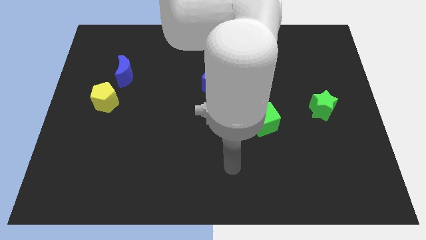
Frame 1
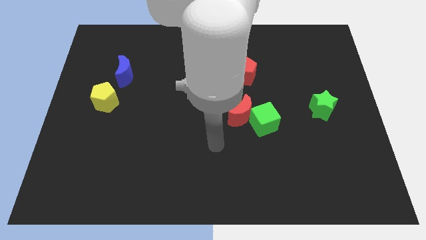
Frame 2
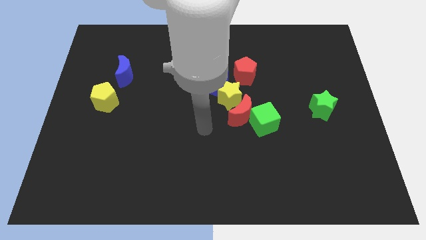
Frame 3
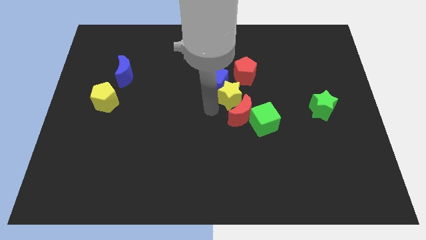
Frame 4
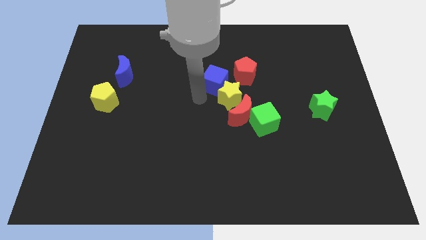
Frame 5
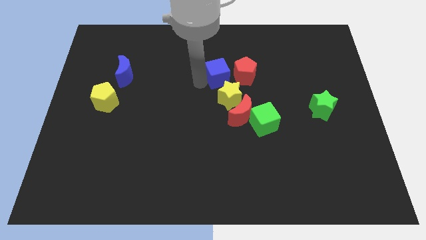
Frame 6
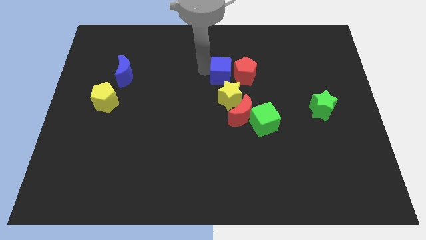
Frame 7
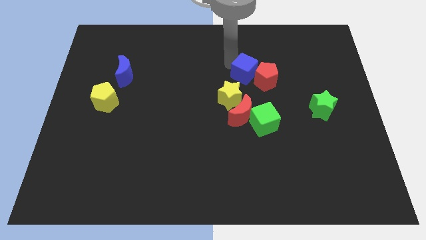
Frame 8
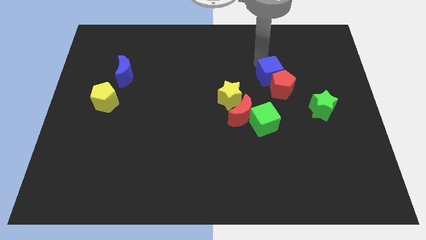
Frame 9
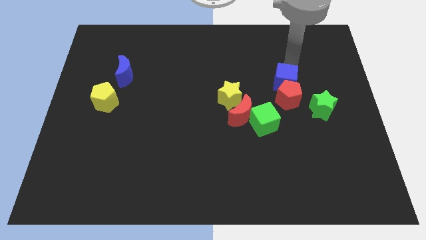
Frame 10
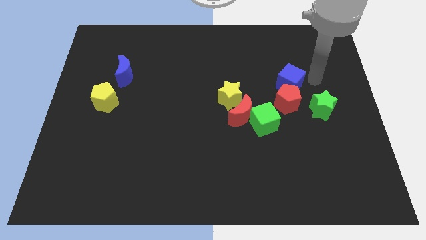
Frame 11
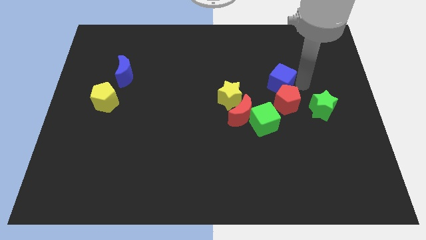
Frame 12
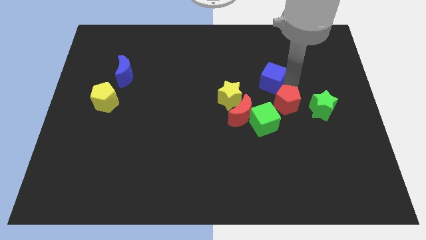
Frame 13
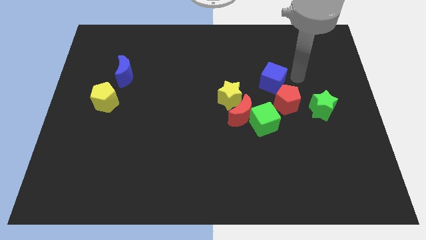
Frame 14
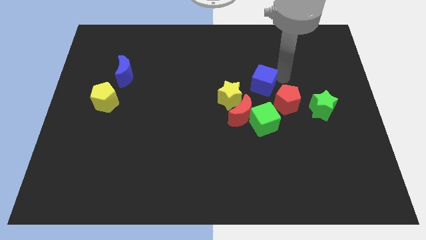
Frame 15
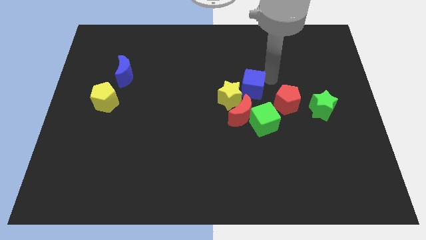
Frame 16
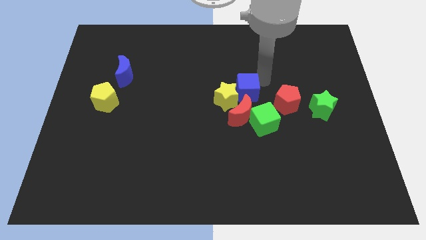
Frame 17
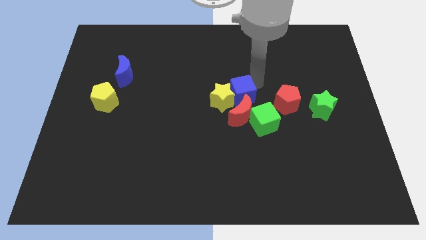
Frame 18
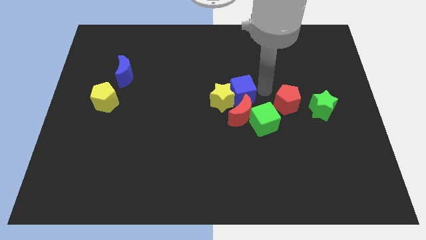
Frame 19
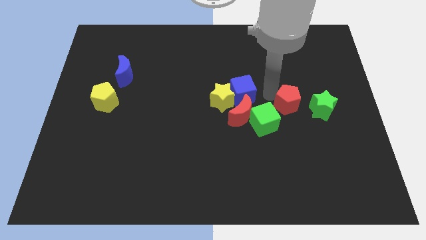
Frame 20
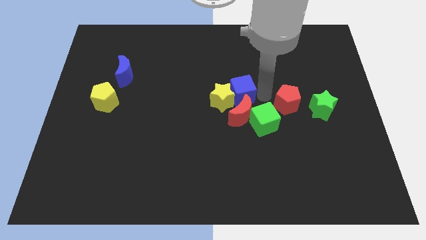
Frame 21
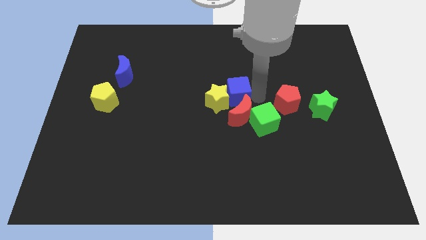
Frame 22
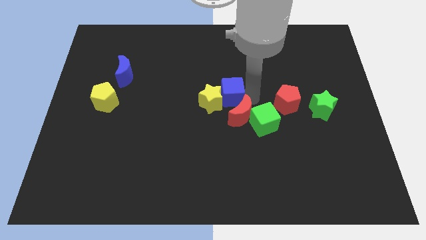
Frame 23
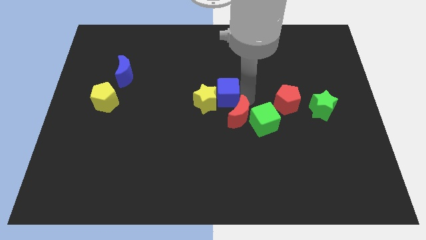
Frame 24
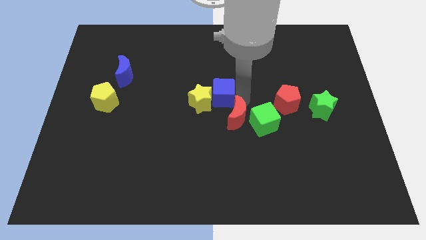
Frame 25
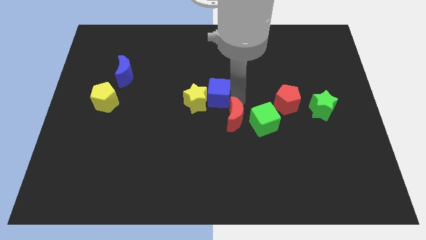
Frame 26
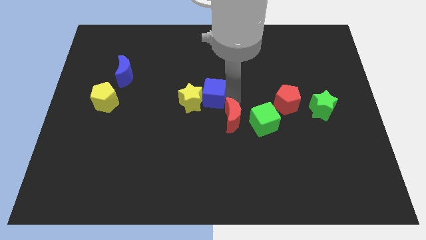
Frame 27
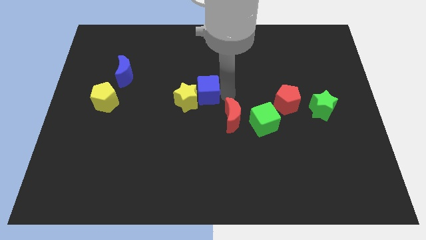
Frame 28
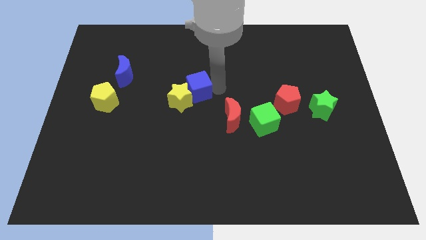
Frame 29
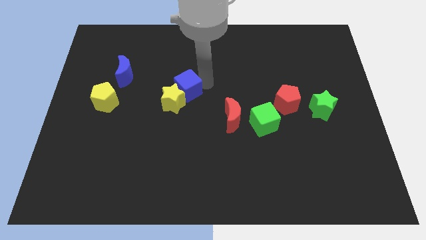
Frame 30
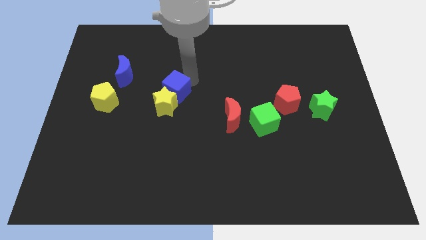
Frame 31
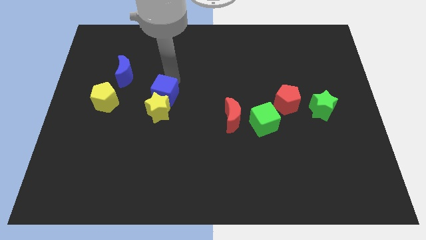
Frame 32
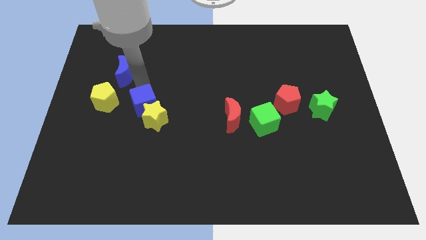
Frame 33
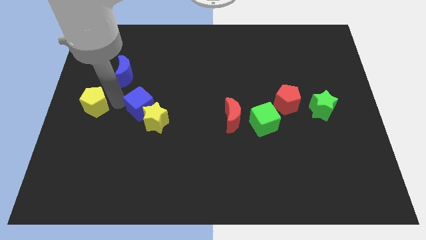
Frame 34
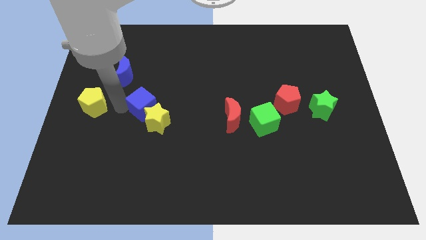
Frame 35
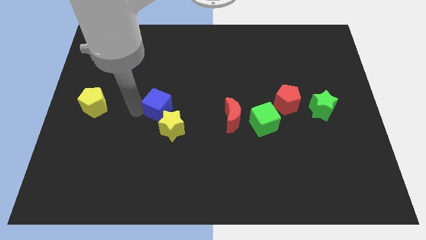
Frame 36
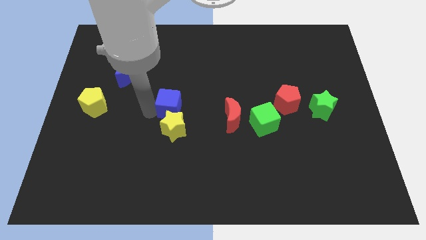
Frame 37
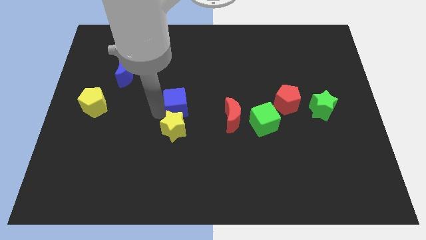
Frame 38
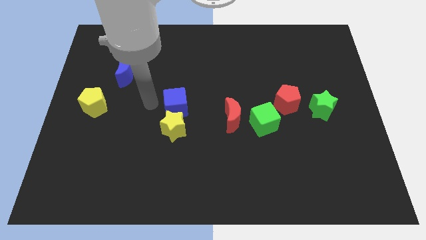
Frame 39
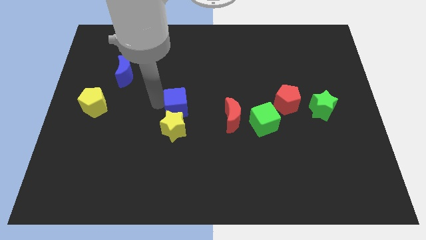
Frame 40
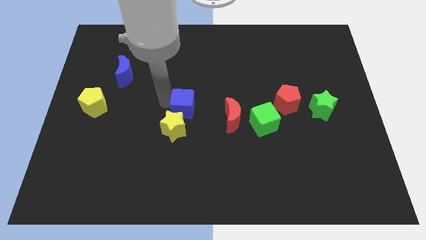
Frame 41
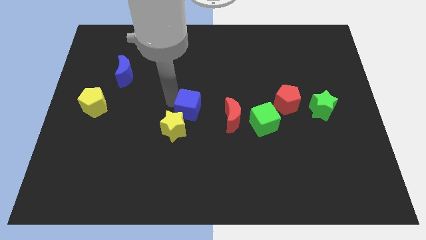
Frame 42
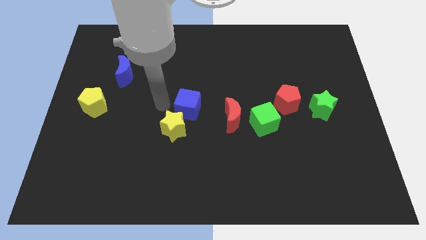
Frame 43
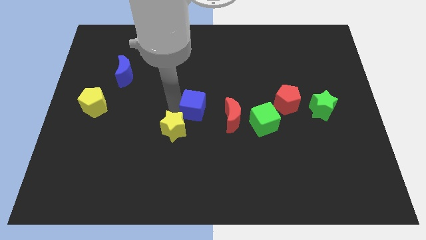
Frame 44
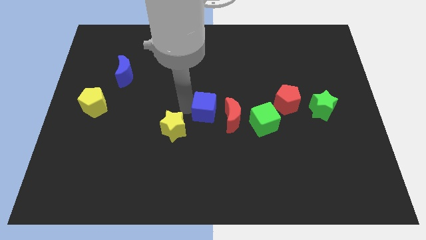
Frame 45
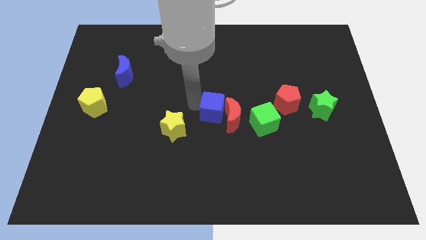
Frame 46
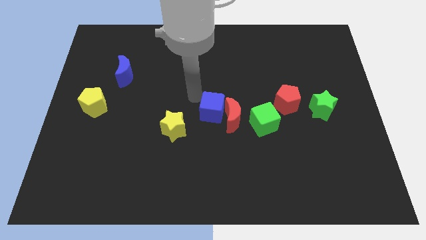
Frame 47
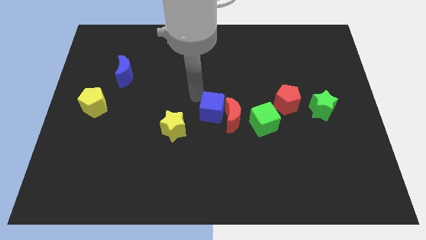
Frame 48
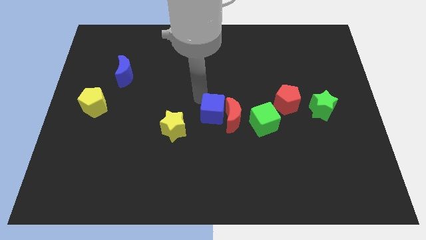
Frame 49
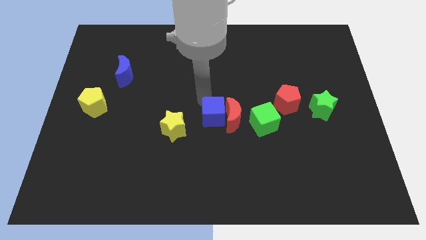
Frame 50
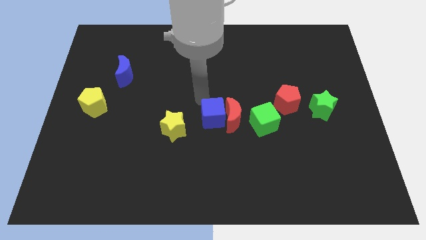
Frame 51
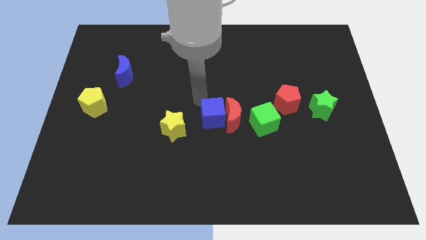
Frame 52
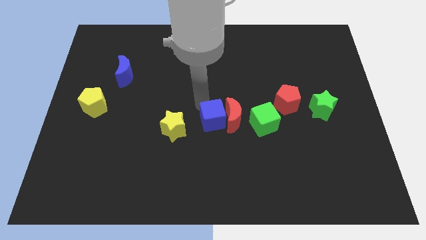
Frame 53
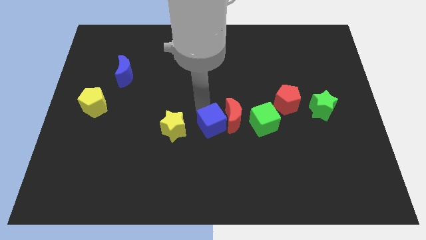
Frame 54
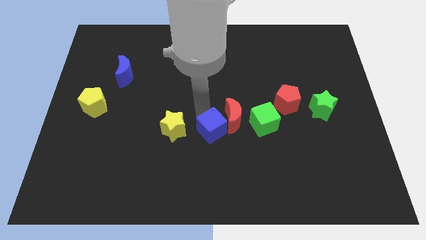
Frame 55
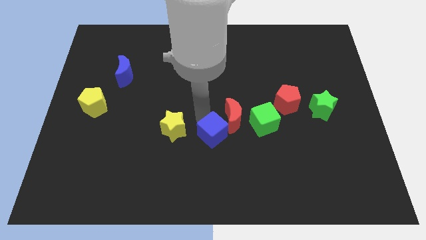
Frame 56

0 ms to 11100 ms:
slide the blue cube to the bottom side of the red moon

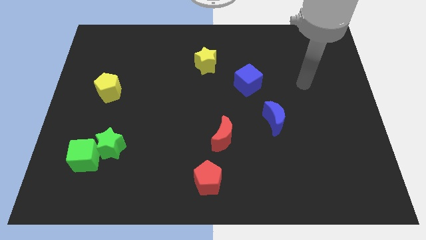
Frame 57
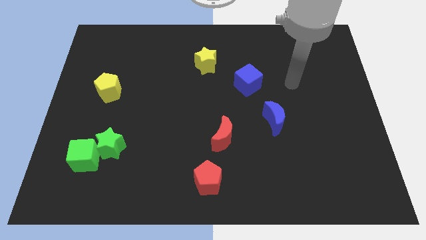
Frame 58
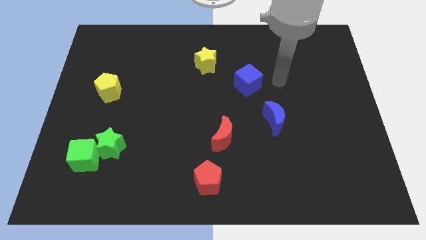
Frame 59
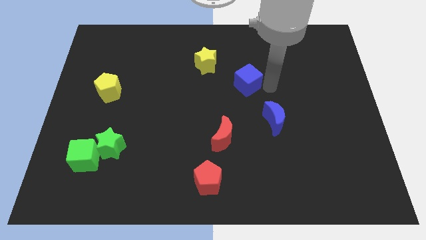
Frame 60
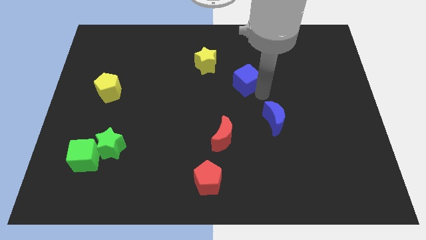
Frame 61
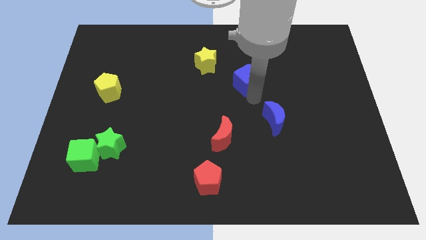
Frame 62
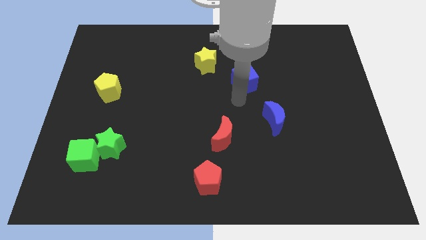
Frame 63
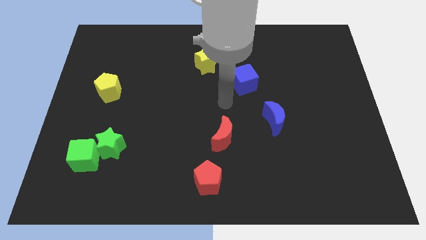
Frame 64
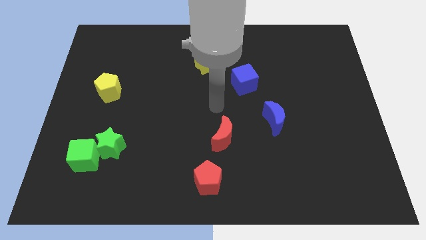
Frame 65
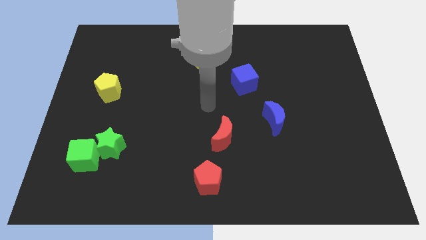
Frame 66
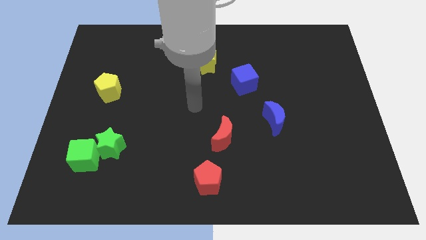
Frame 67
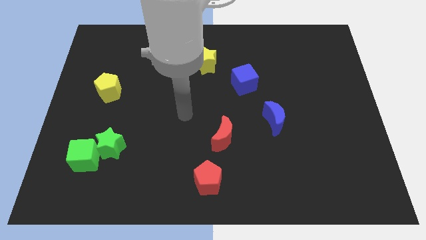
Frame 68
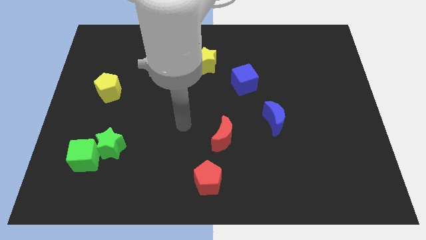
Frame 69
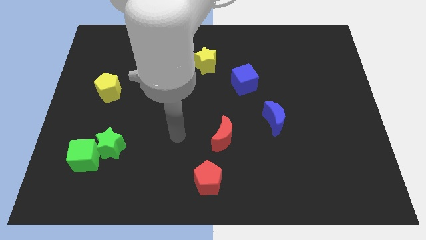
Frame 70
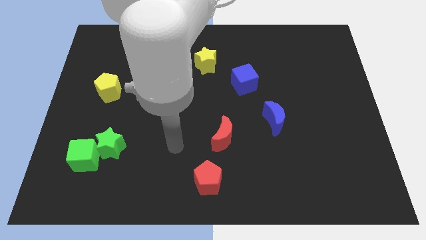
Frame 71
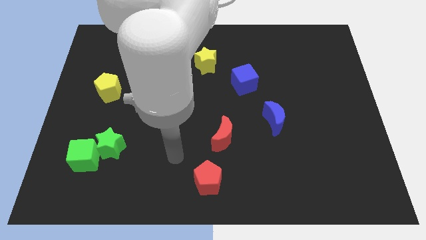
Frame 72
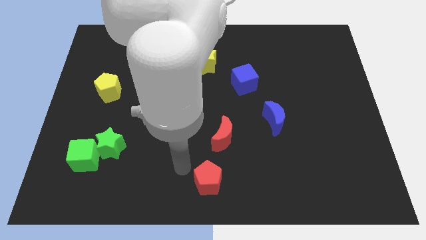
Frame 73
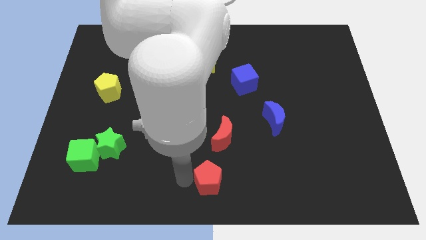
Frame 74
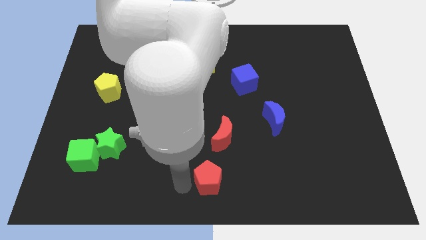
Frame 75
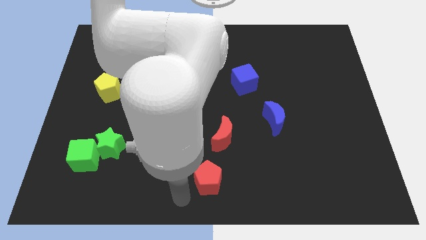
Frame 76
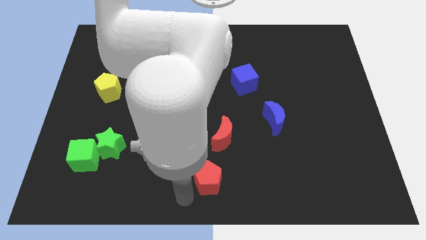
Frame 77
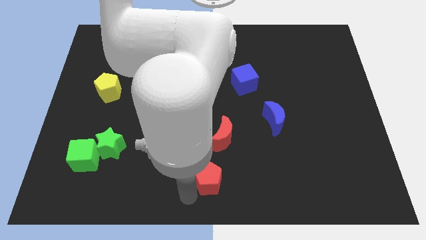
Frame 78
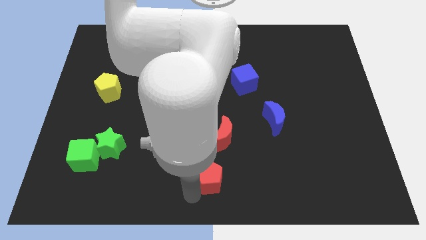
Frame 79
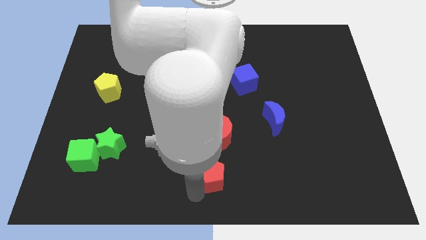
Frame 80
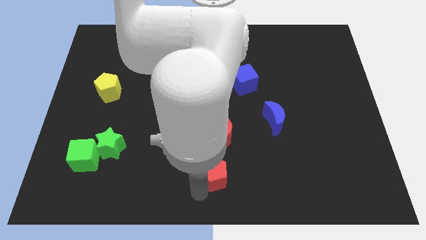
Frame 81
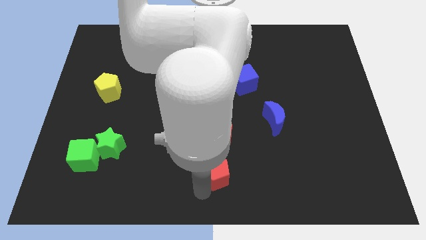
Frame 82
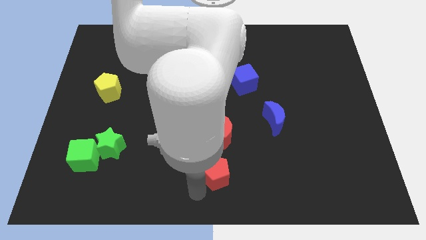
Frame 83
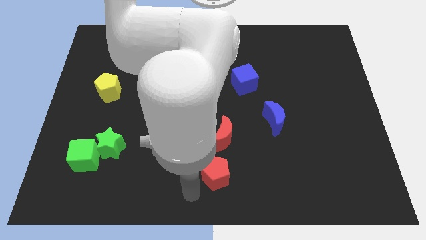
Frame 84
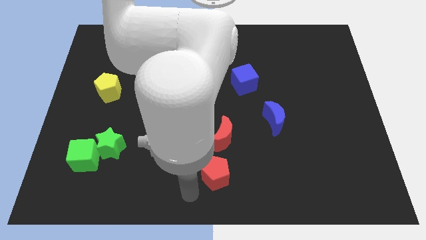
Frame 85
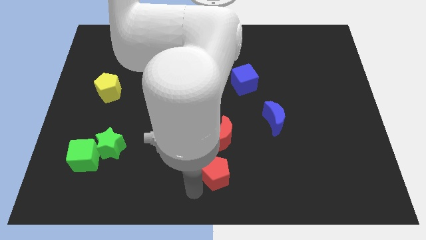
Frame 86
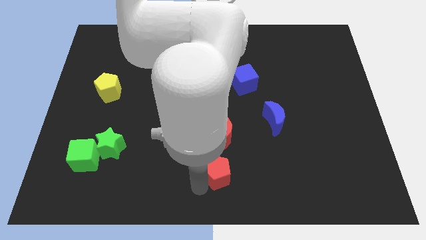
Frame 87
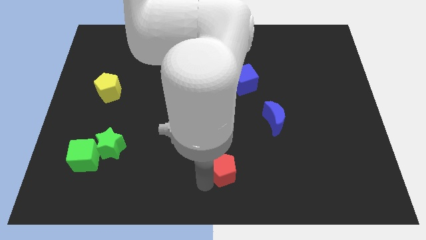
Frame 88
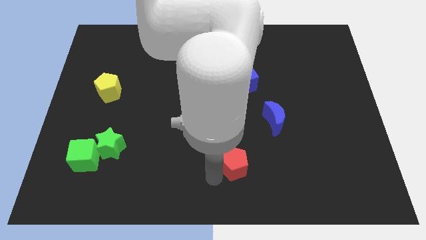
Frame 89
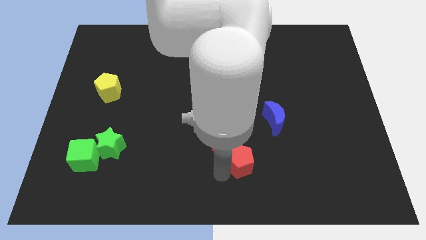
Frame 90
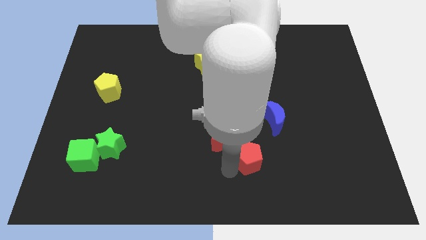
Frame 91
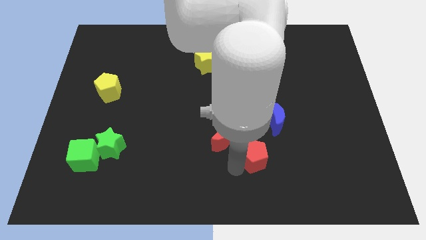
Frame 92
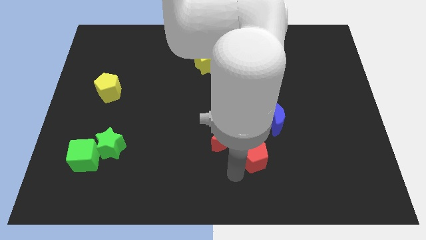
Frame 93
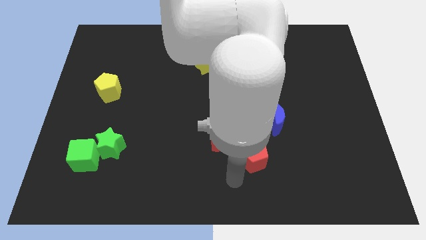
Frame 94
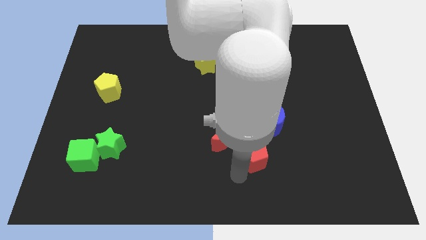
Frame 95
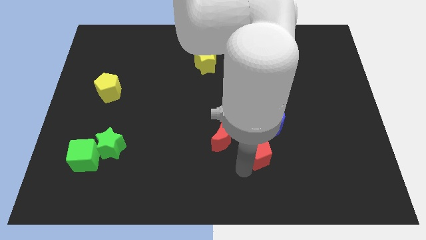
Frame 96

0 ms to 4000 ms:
slide the red pentagon to the right of the red moon
